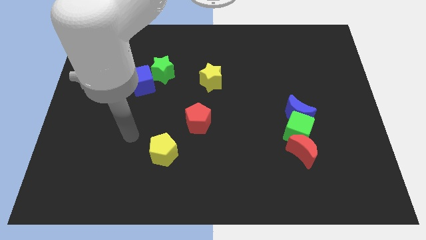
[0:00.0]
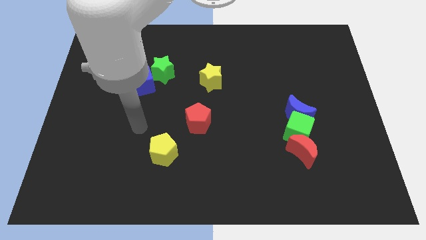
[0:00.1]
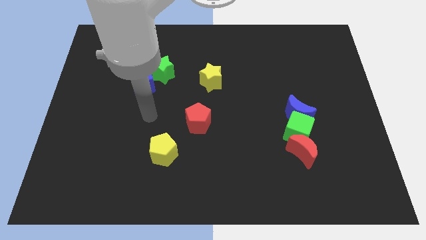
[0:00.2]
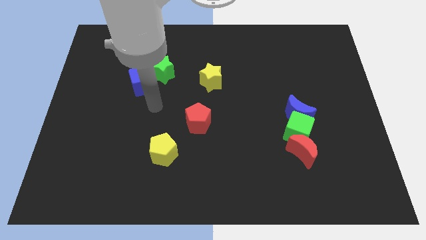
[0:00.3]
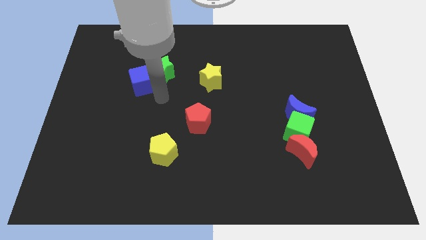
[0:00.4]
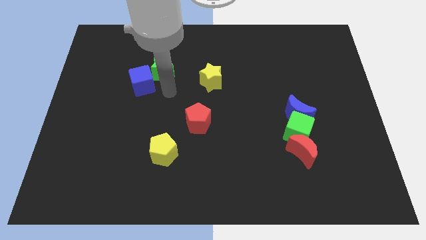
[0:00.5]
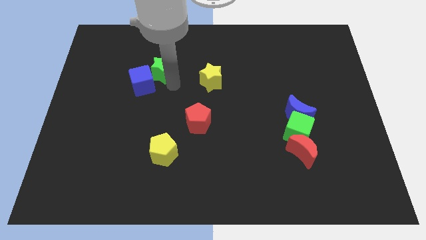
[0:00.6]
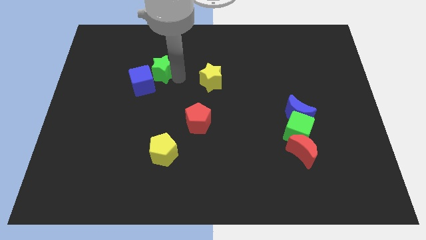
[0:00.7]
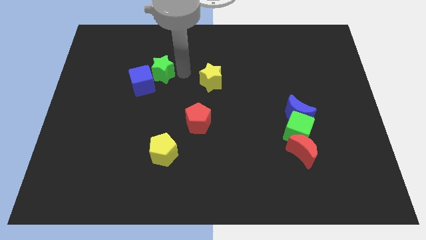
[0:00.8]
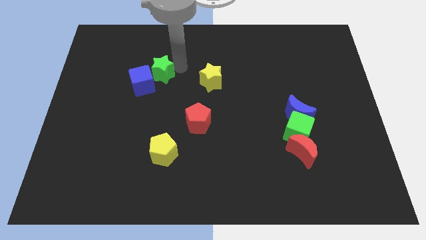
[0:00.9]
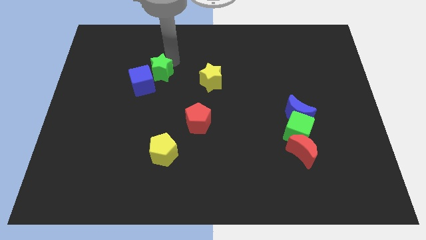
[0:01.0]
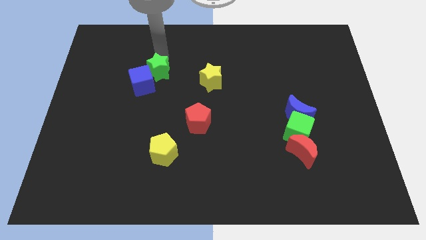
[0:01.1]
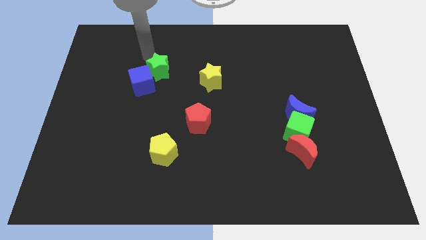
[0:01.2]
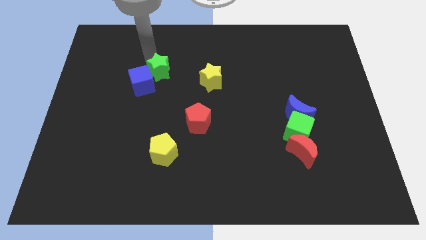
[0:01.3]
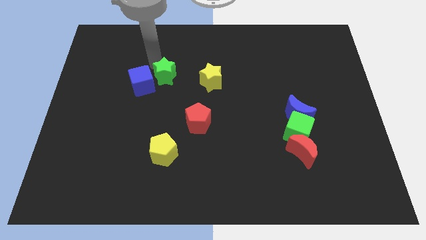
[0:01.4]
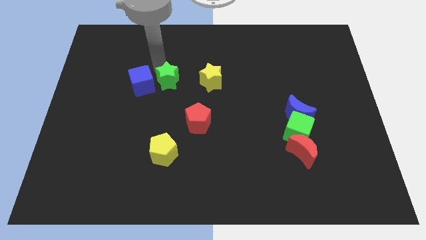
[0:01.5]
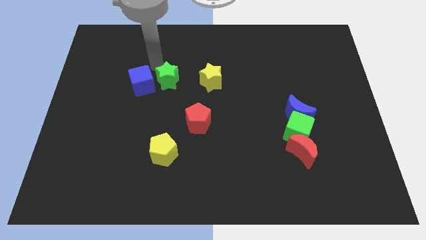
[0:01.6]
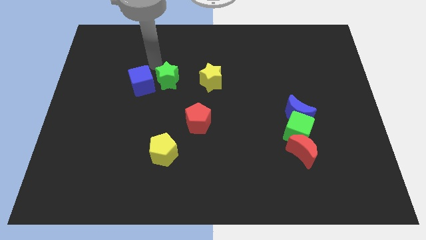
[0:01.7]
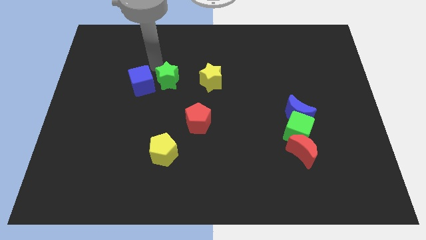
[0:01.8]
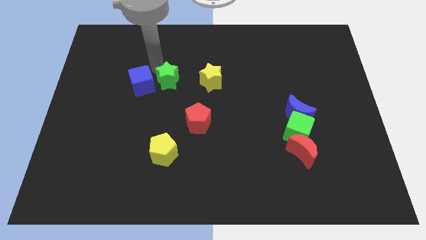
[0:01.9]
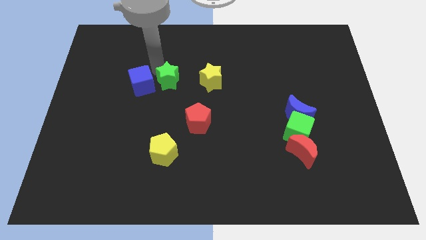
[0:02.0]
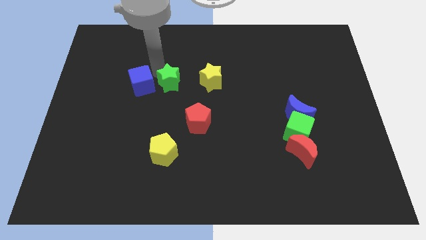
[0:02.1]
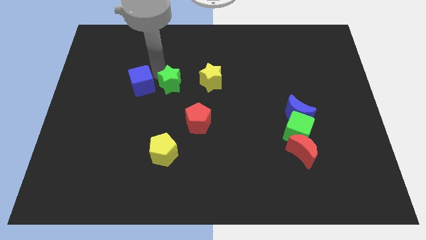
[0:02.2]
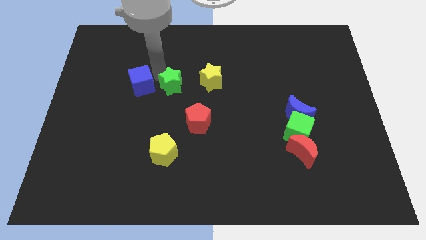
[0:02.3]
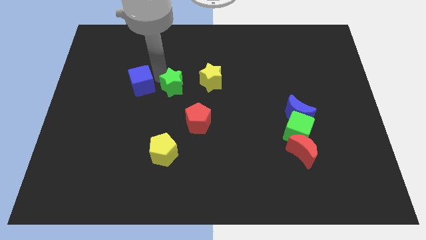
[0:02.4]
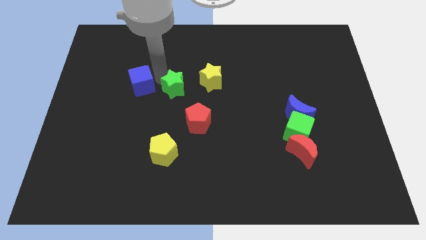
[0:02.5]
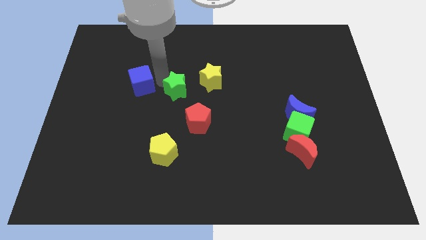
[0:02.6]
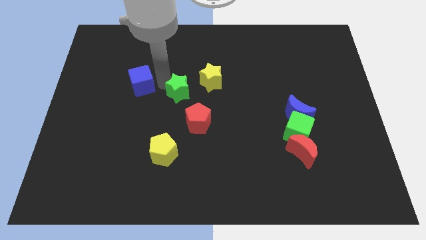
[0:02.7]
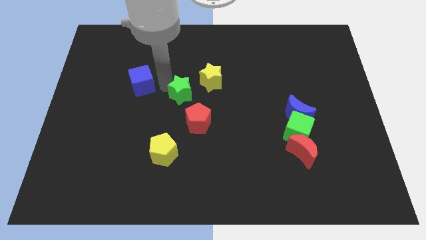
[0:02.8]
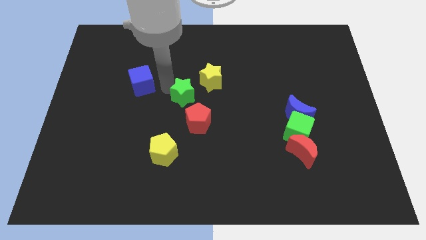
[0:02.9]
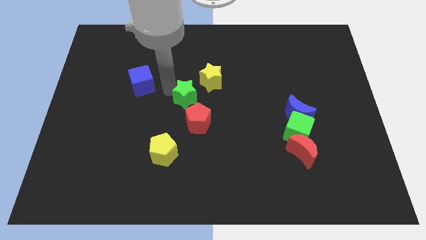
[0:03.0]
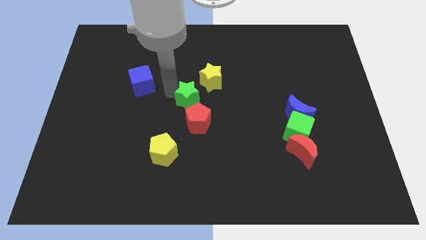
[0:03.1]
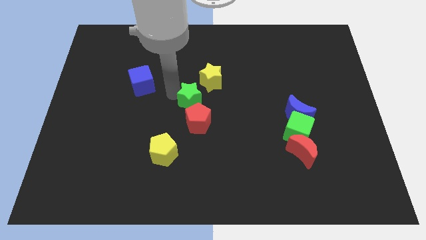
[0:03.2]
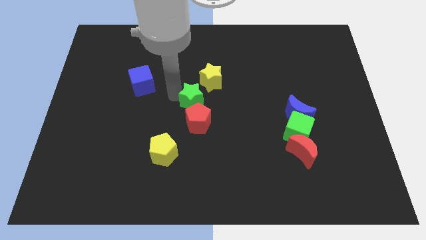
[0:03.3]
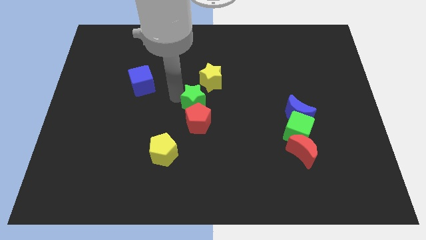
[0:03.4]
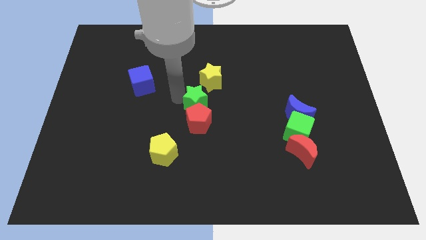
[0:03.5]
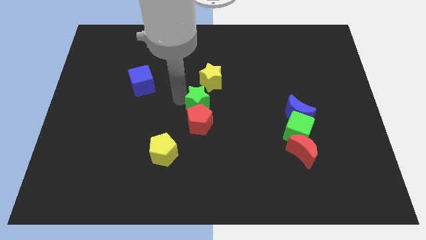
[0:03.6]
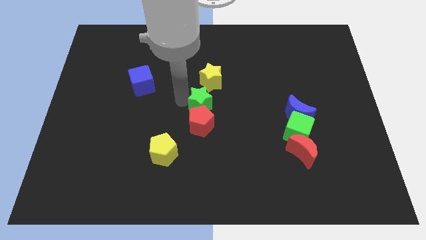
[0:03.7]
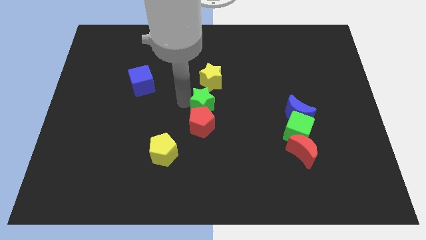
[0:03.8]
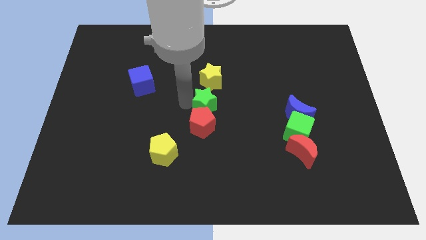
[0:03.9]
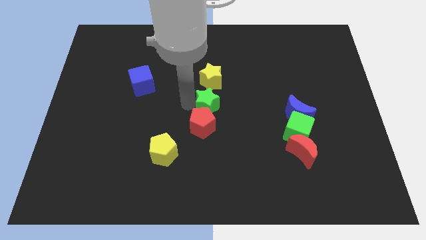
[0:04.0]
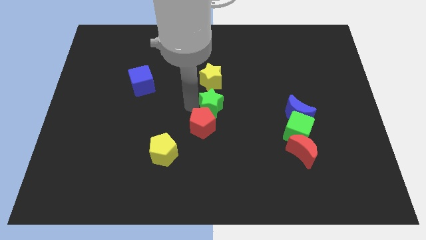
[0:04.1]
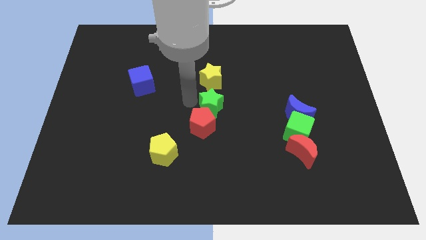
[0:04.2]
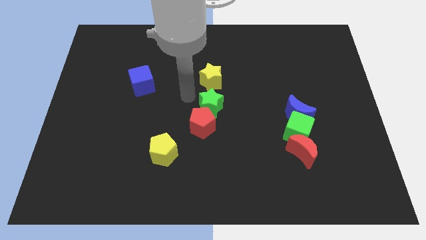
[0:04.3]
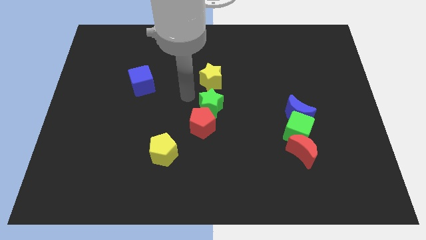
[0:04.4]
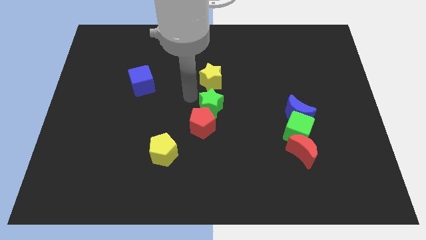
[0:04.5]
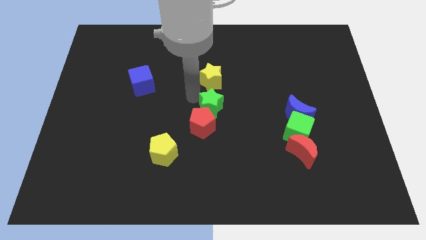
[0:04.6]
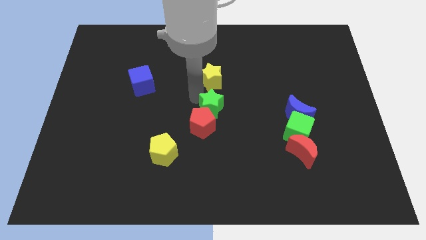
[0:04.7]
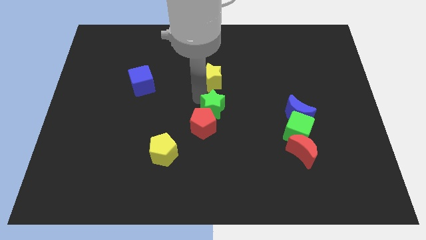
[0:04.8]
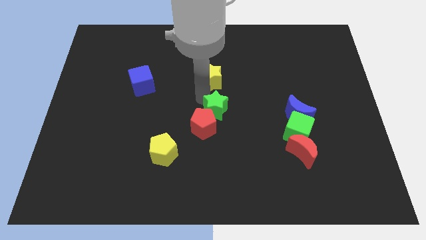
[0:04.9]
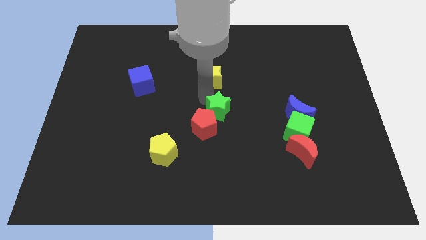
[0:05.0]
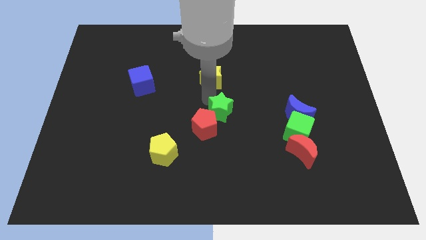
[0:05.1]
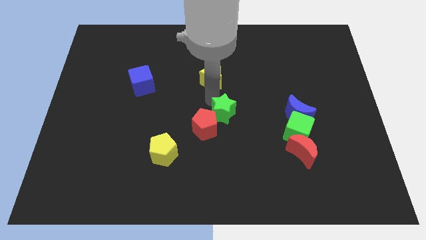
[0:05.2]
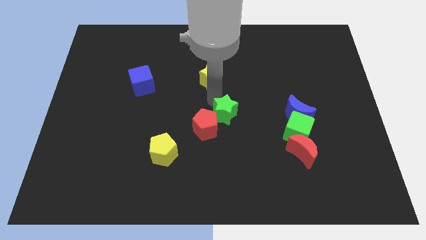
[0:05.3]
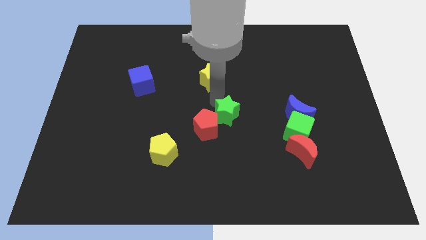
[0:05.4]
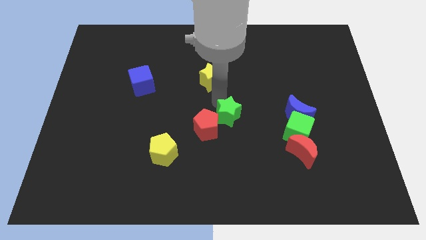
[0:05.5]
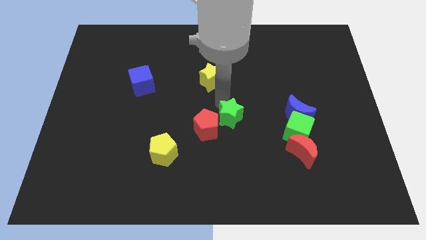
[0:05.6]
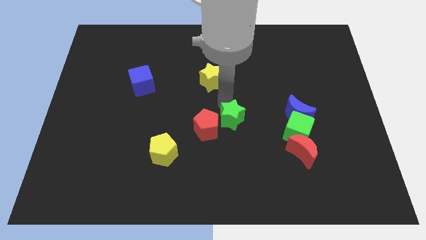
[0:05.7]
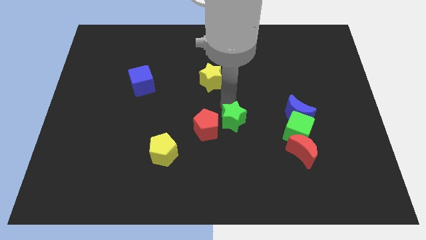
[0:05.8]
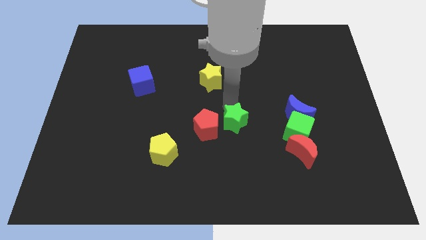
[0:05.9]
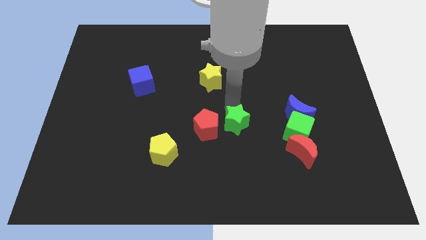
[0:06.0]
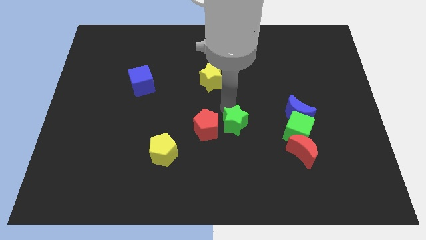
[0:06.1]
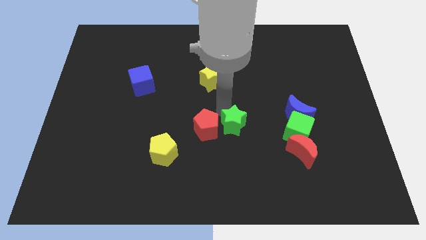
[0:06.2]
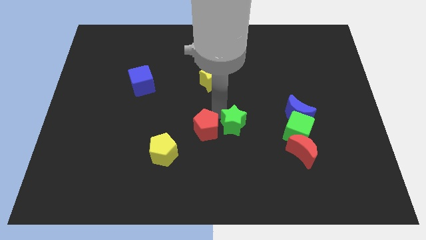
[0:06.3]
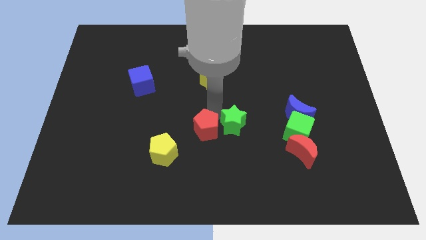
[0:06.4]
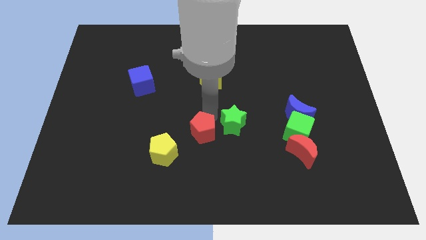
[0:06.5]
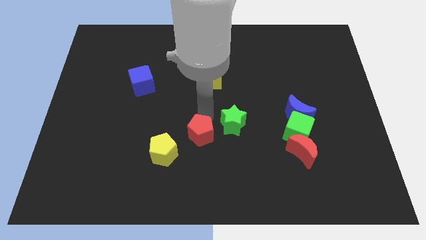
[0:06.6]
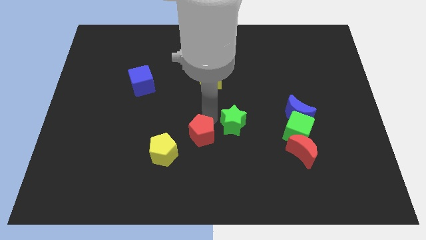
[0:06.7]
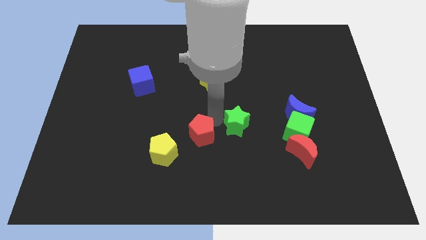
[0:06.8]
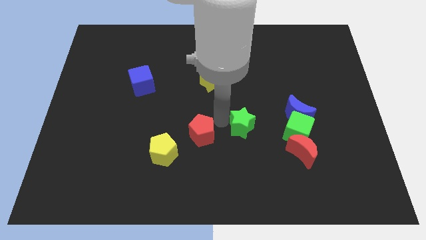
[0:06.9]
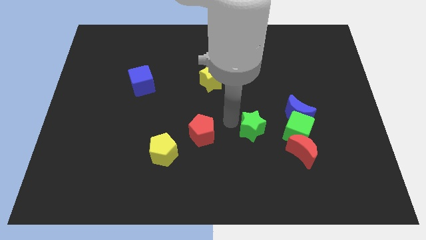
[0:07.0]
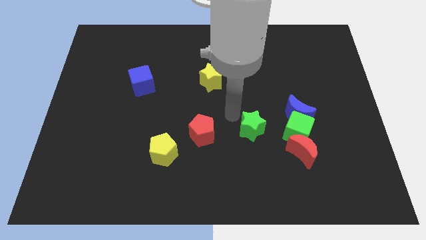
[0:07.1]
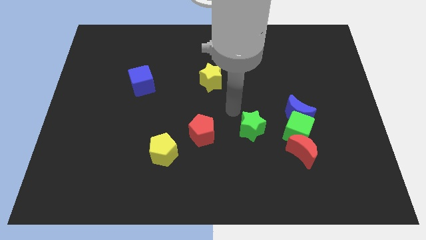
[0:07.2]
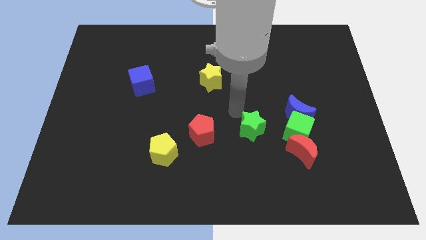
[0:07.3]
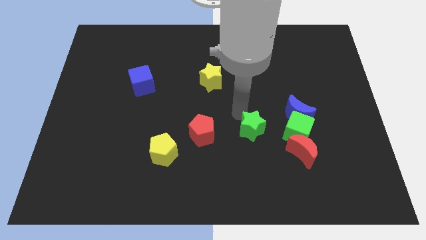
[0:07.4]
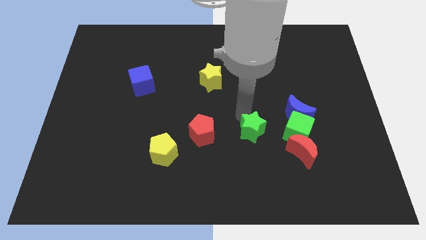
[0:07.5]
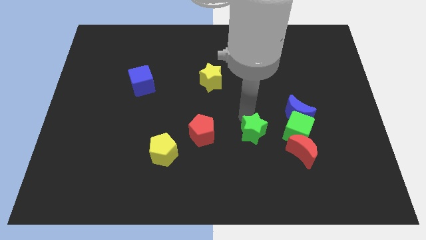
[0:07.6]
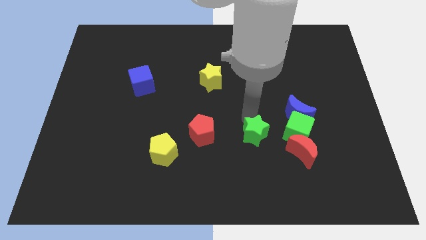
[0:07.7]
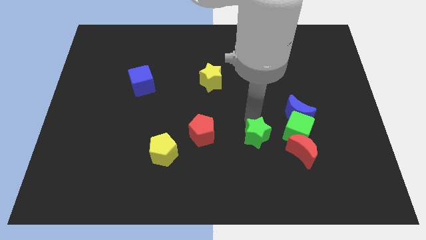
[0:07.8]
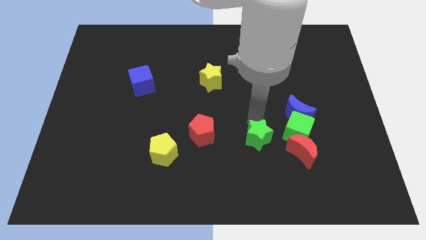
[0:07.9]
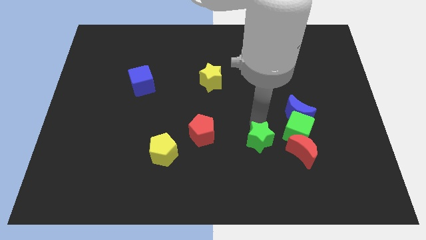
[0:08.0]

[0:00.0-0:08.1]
slide the green star diagonally down and to the left of the green cube
